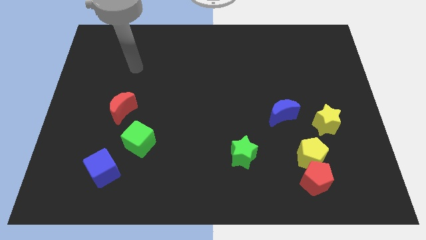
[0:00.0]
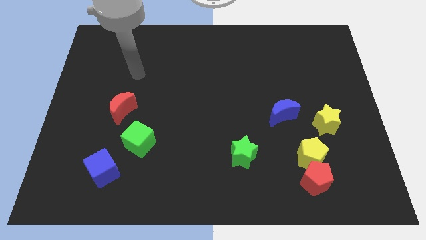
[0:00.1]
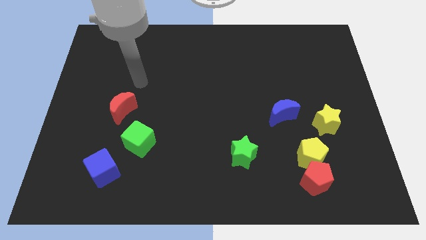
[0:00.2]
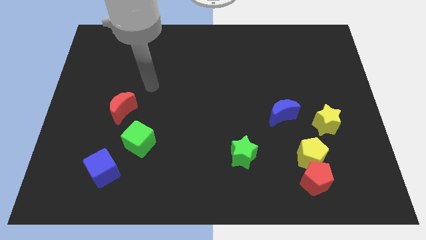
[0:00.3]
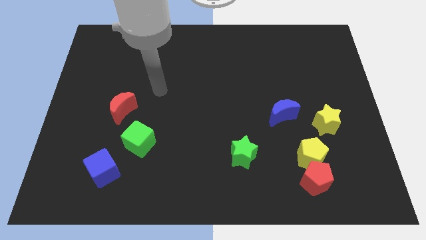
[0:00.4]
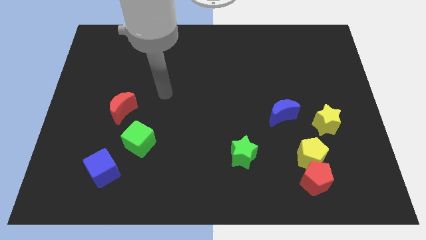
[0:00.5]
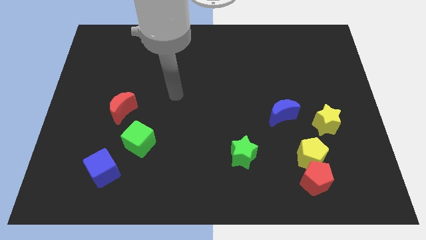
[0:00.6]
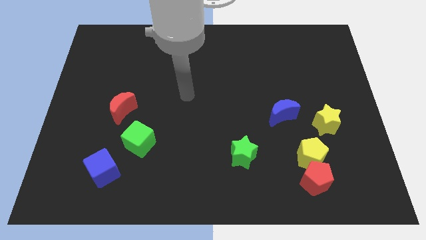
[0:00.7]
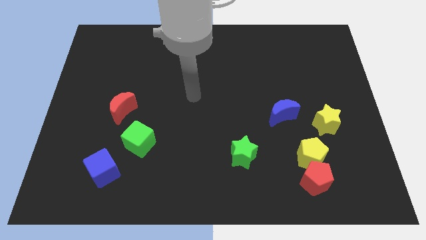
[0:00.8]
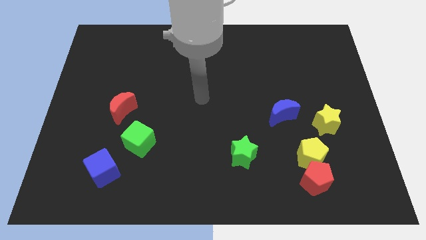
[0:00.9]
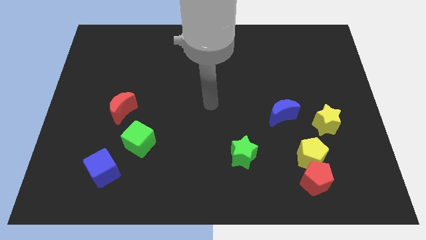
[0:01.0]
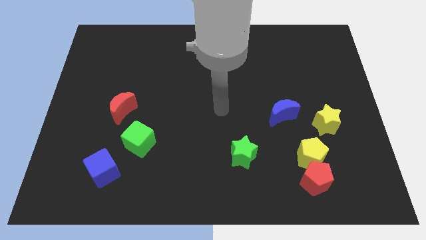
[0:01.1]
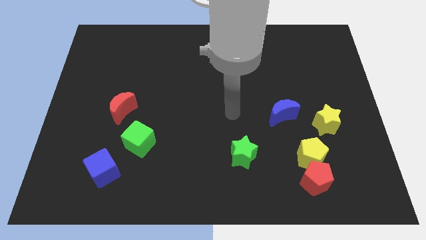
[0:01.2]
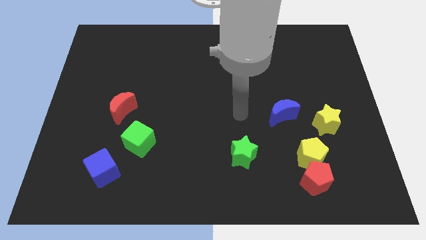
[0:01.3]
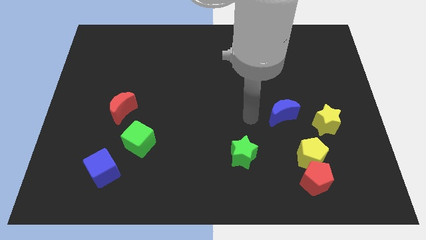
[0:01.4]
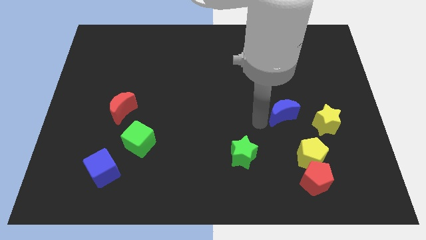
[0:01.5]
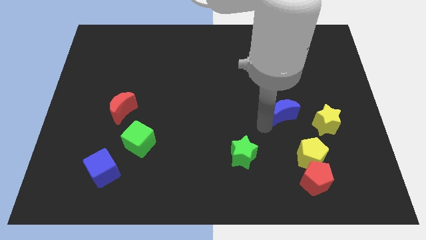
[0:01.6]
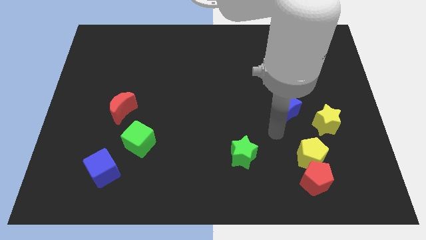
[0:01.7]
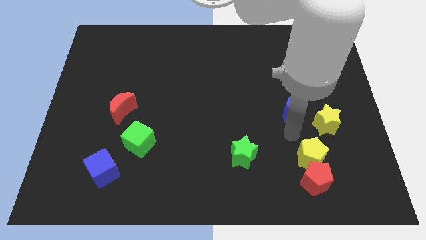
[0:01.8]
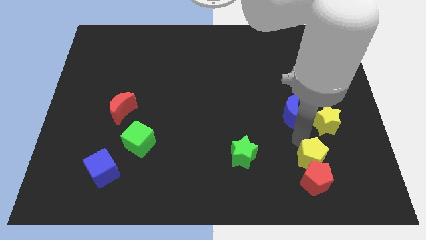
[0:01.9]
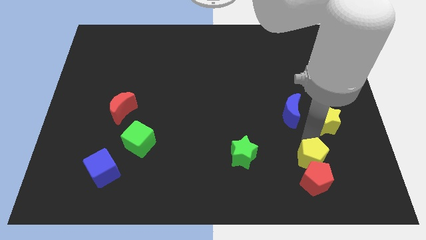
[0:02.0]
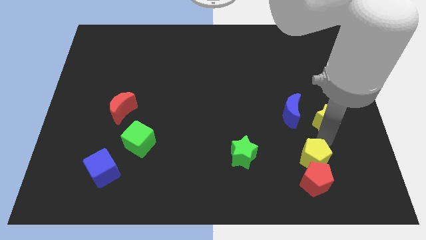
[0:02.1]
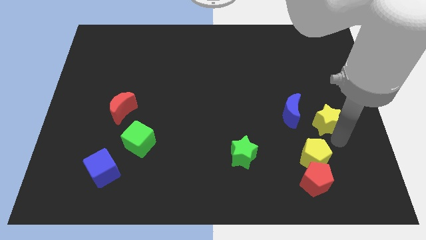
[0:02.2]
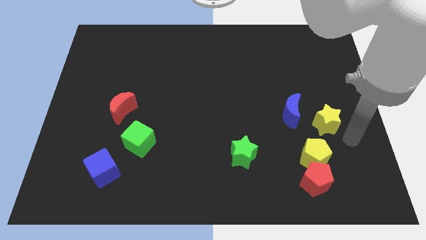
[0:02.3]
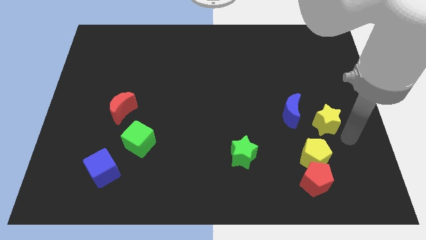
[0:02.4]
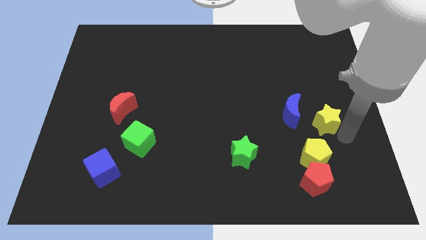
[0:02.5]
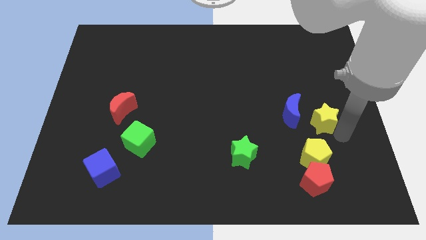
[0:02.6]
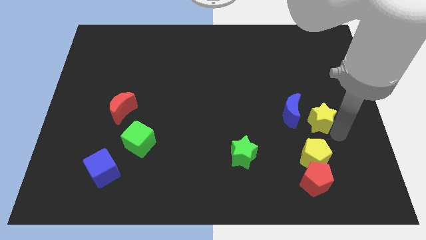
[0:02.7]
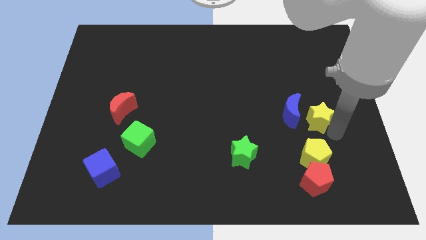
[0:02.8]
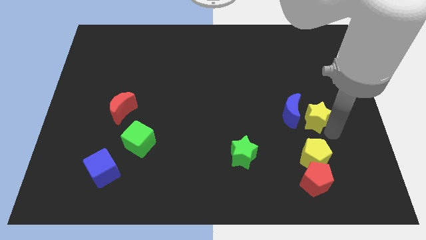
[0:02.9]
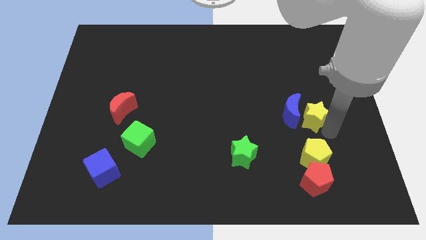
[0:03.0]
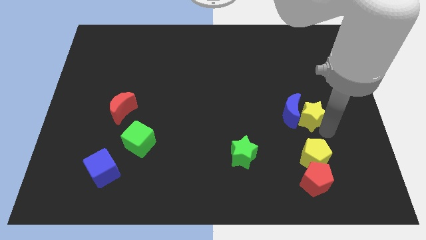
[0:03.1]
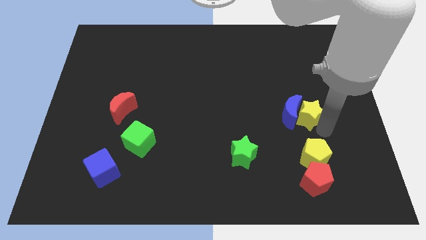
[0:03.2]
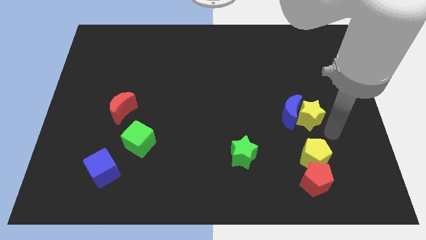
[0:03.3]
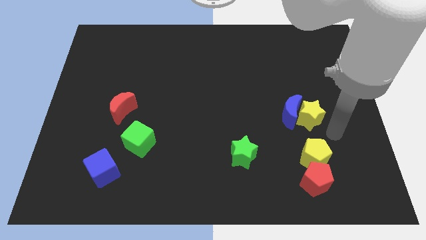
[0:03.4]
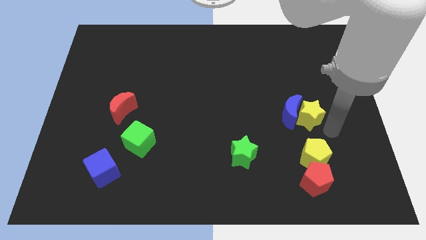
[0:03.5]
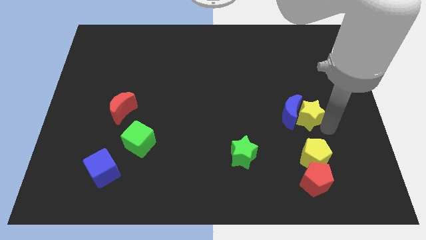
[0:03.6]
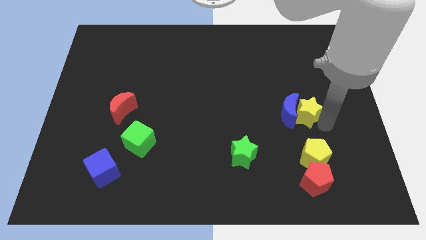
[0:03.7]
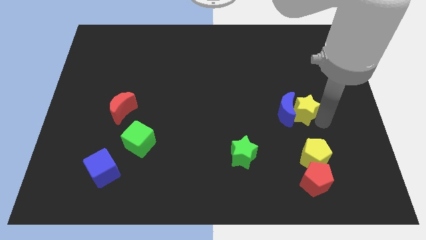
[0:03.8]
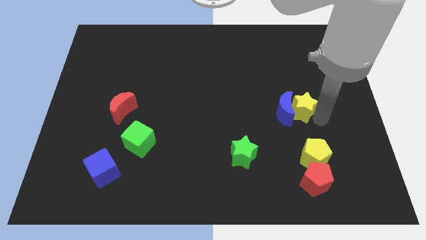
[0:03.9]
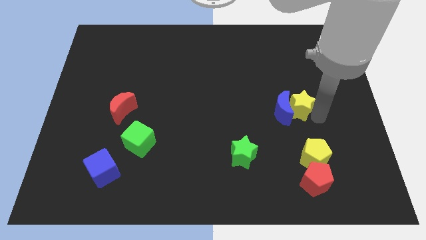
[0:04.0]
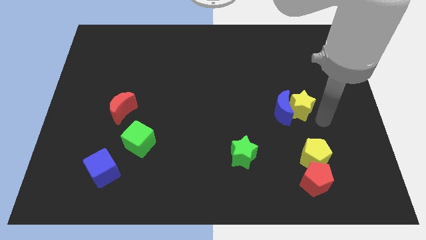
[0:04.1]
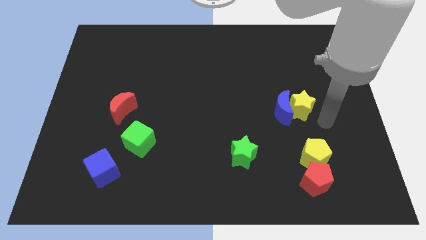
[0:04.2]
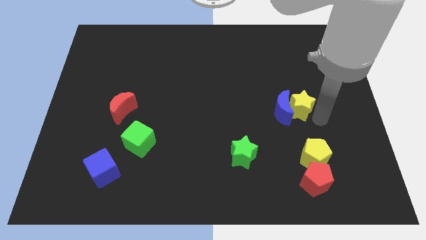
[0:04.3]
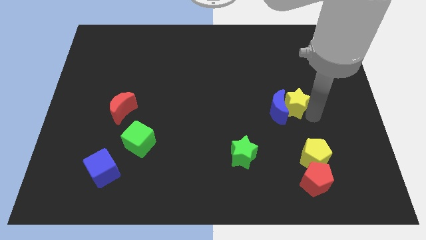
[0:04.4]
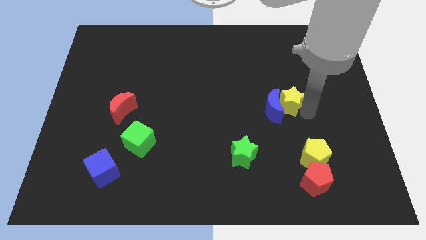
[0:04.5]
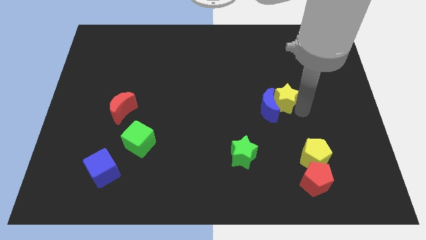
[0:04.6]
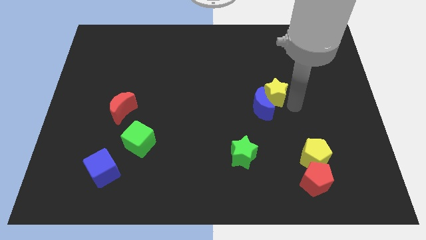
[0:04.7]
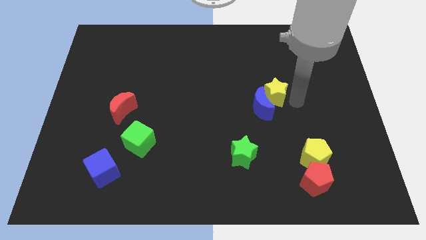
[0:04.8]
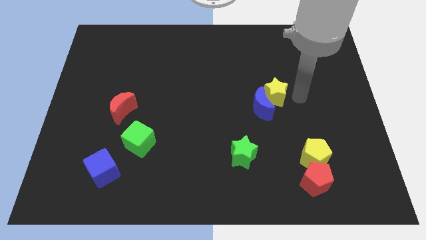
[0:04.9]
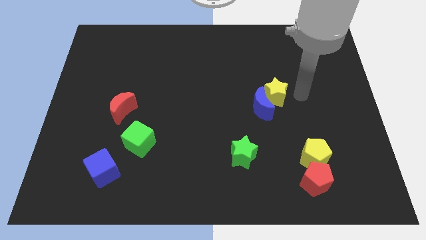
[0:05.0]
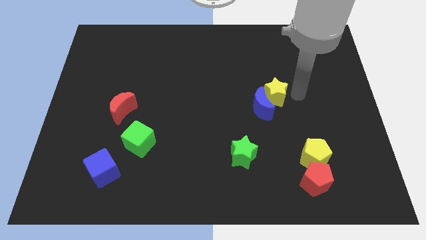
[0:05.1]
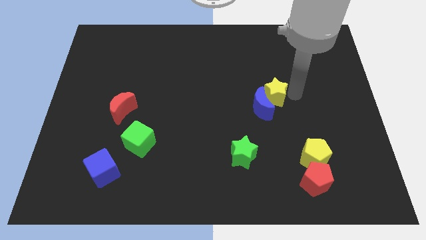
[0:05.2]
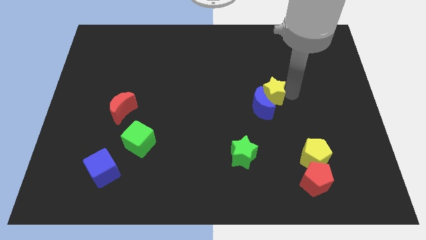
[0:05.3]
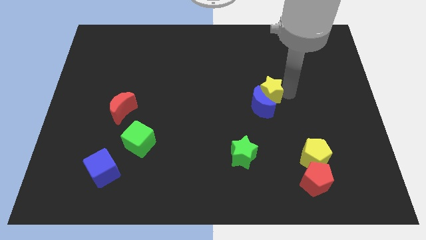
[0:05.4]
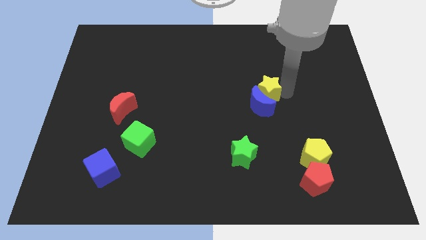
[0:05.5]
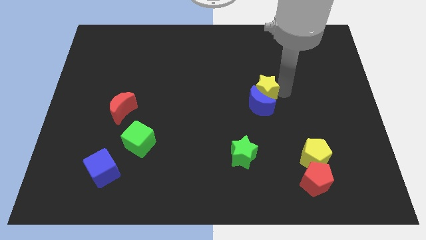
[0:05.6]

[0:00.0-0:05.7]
move the yellow star to the middle
